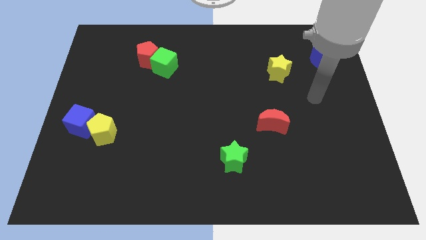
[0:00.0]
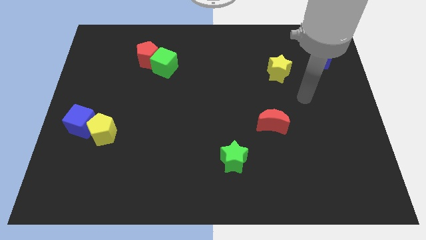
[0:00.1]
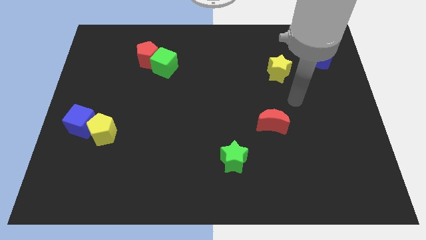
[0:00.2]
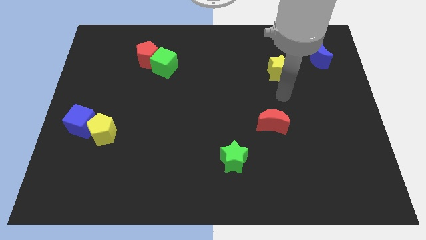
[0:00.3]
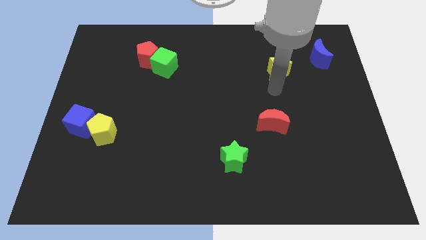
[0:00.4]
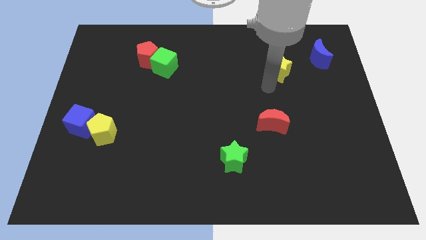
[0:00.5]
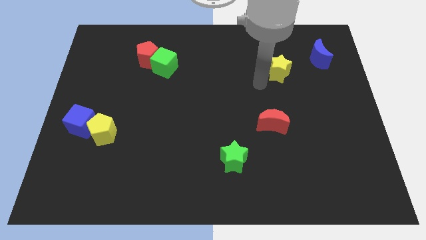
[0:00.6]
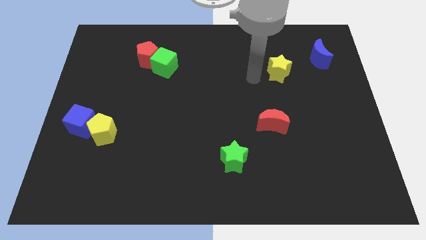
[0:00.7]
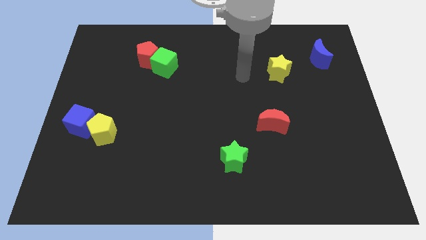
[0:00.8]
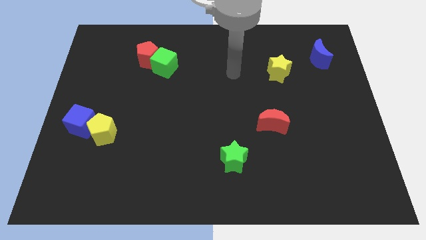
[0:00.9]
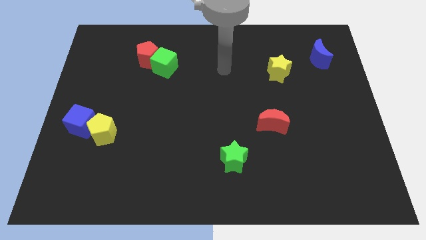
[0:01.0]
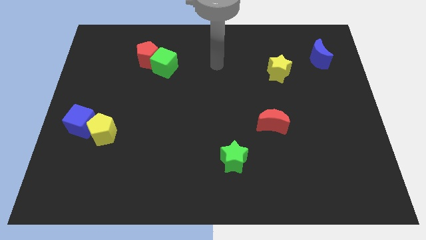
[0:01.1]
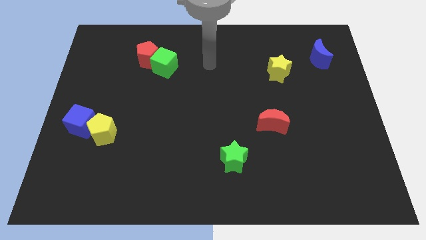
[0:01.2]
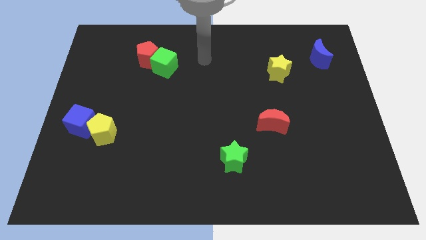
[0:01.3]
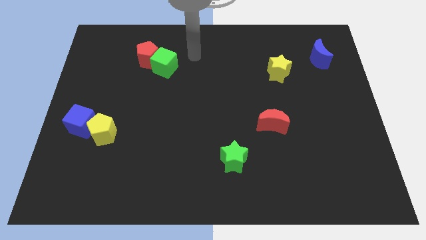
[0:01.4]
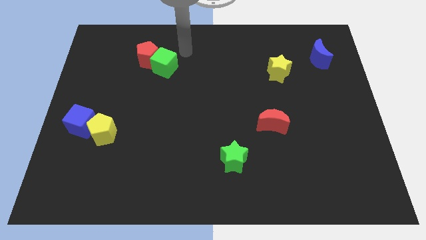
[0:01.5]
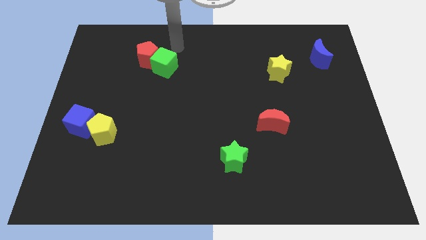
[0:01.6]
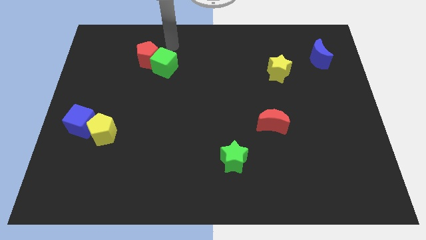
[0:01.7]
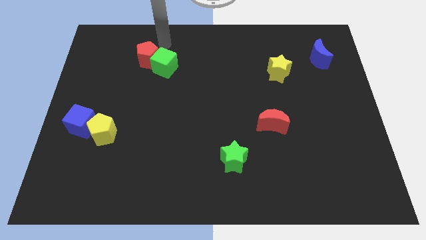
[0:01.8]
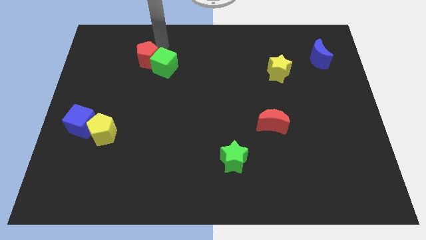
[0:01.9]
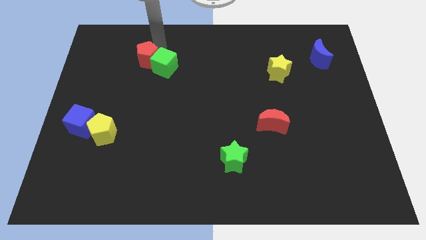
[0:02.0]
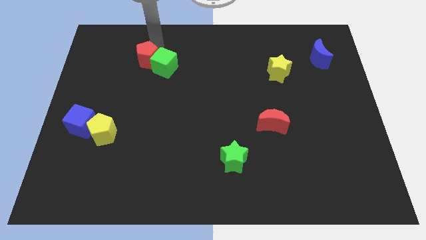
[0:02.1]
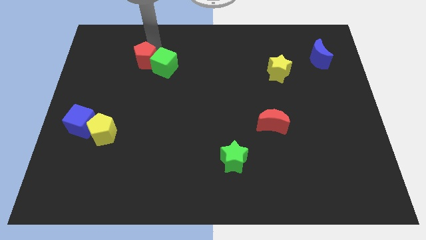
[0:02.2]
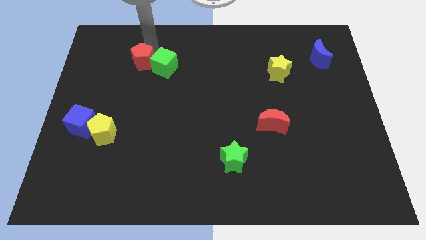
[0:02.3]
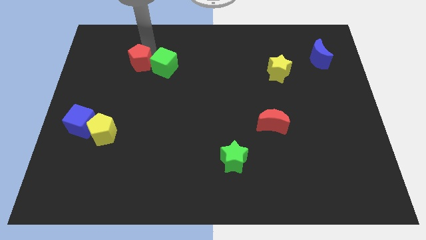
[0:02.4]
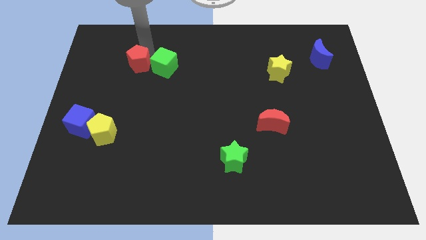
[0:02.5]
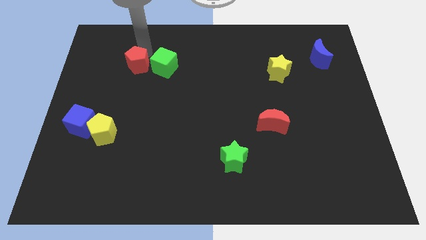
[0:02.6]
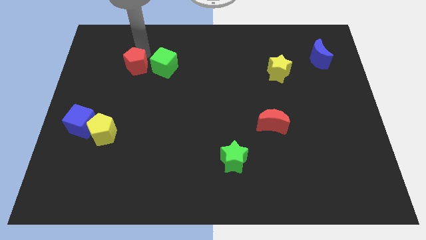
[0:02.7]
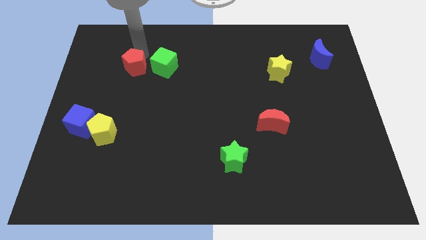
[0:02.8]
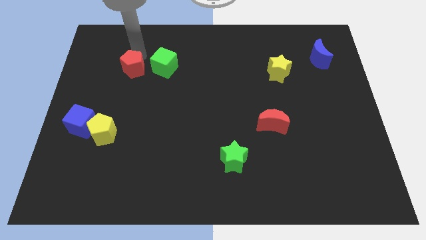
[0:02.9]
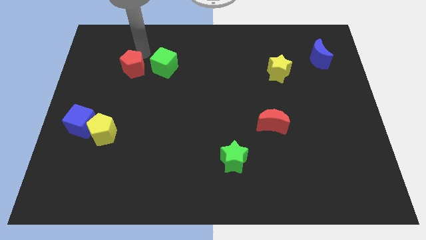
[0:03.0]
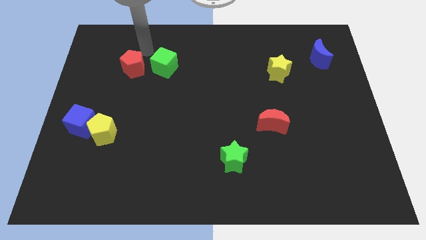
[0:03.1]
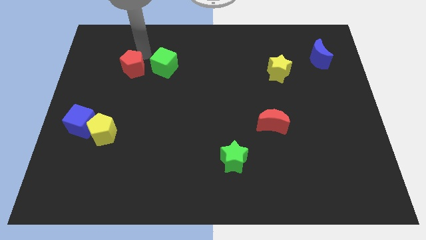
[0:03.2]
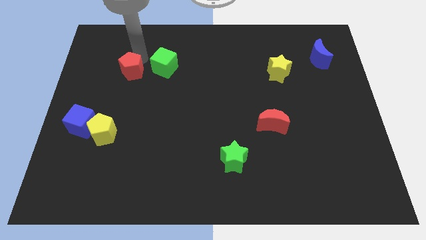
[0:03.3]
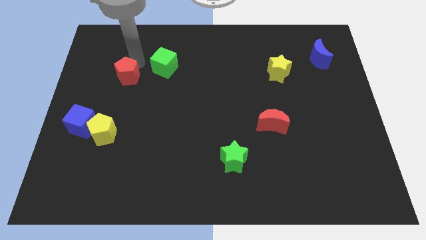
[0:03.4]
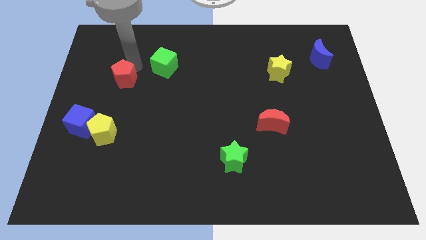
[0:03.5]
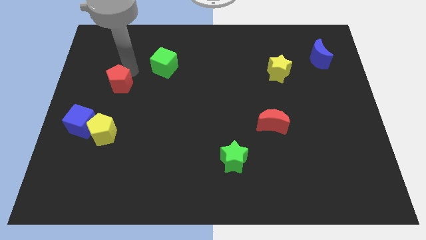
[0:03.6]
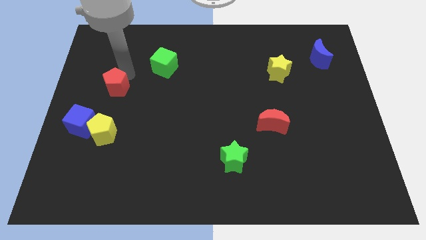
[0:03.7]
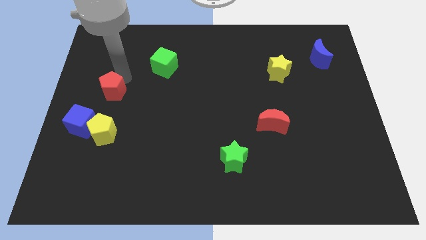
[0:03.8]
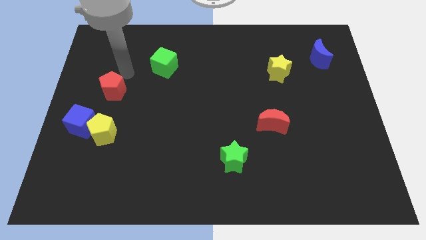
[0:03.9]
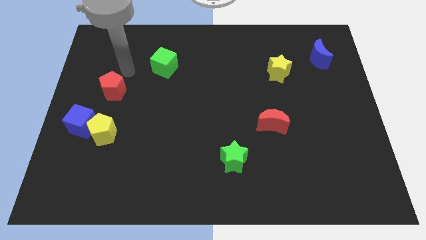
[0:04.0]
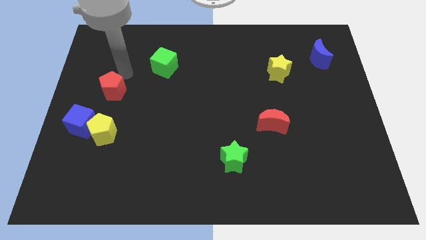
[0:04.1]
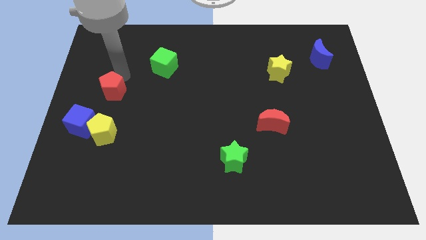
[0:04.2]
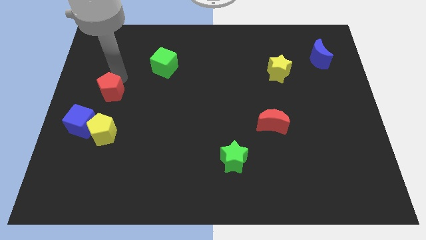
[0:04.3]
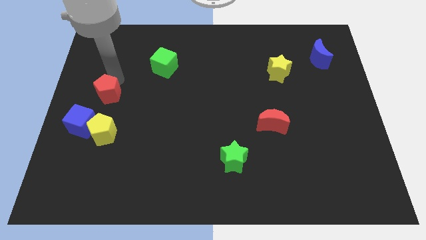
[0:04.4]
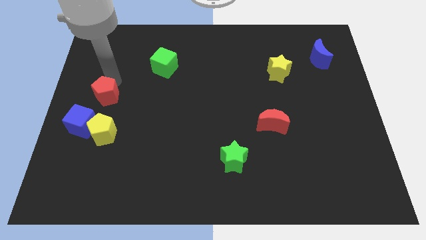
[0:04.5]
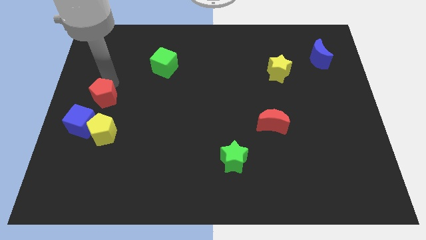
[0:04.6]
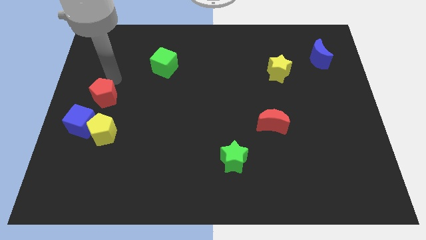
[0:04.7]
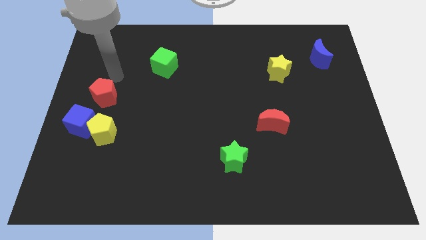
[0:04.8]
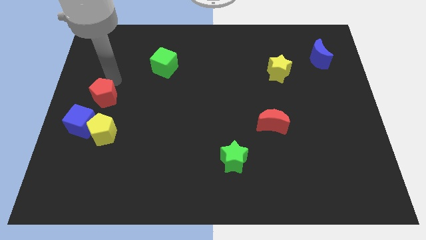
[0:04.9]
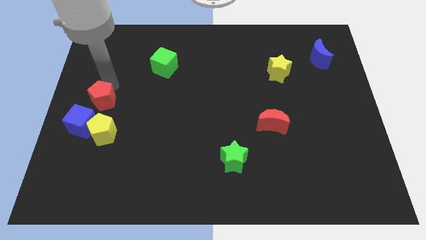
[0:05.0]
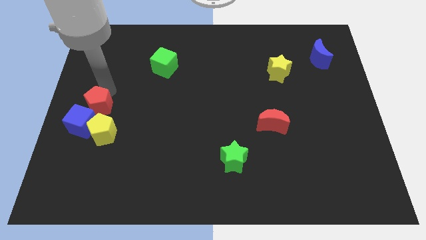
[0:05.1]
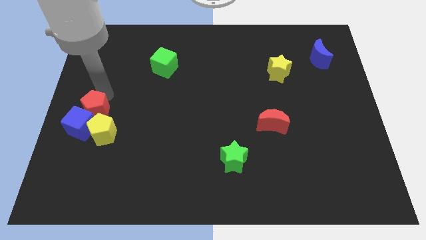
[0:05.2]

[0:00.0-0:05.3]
move the red pentagon towards the blue cube

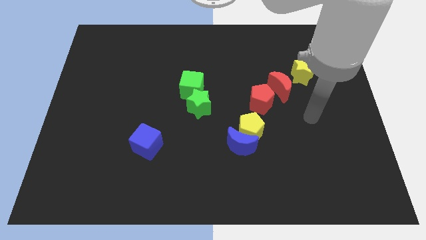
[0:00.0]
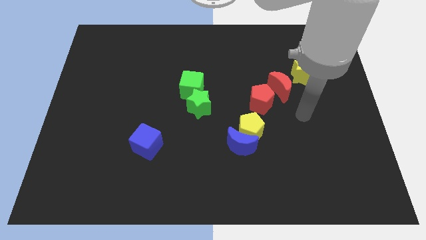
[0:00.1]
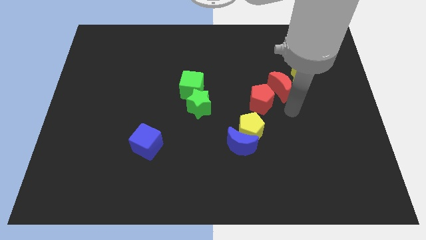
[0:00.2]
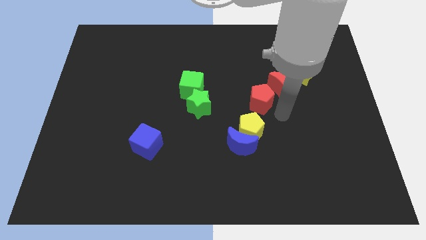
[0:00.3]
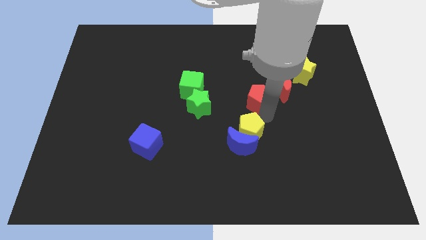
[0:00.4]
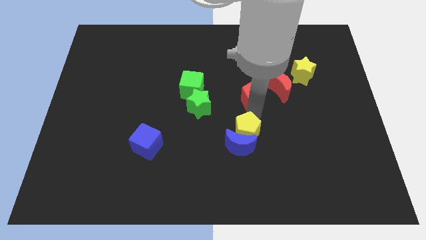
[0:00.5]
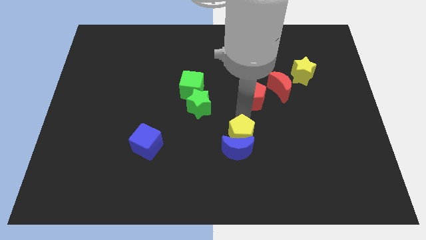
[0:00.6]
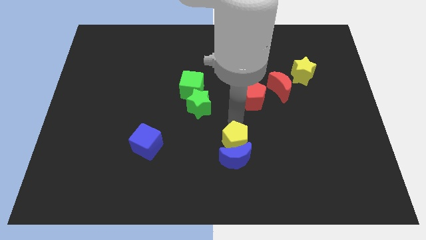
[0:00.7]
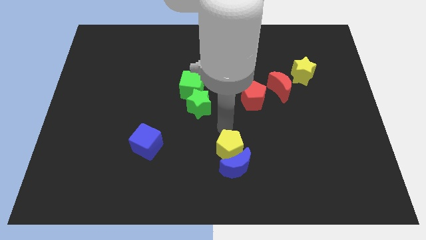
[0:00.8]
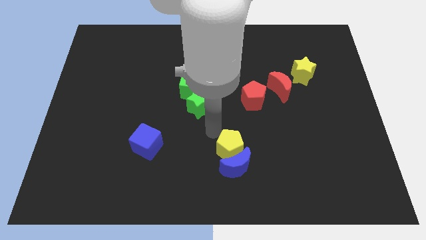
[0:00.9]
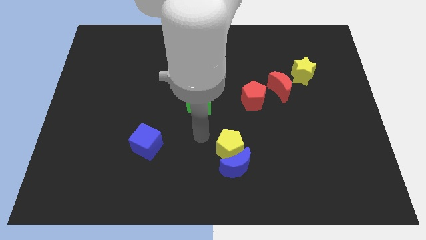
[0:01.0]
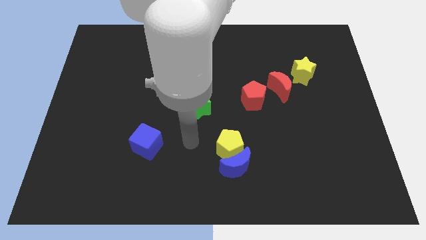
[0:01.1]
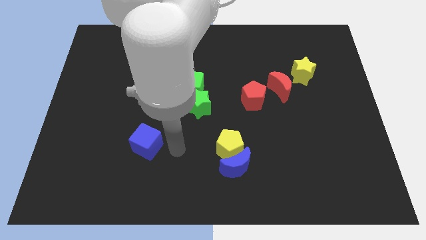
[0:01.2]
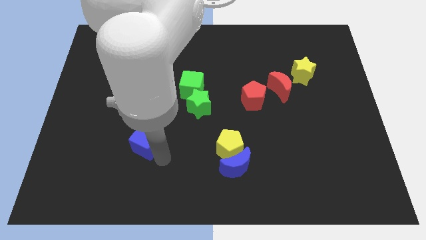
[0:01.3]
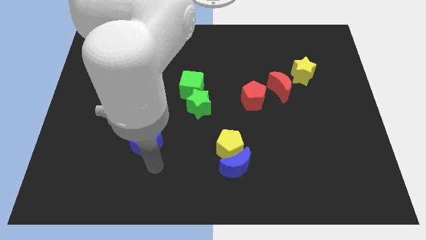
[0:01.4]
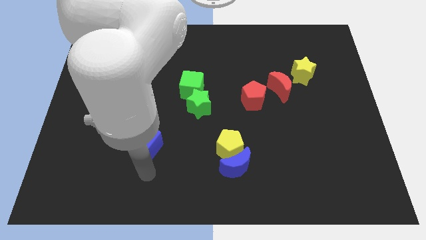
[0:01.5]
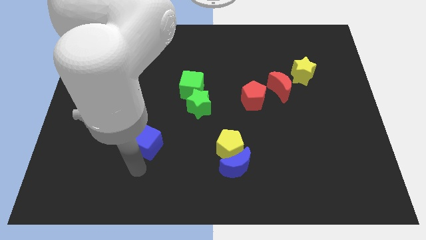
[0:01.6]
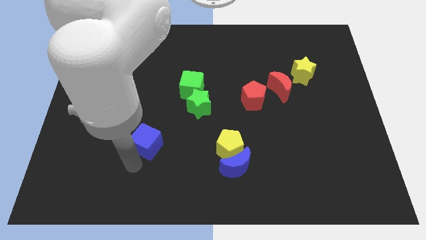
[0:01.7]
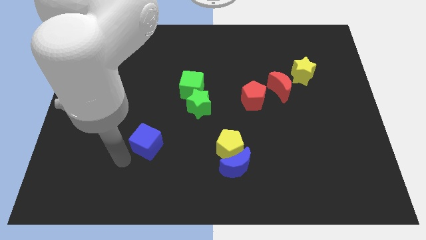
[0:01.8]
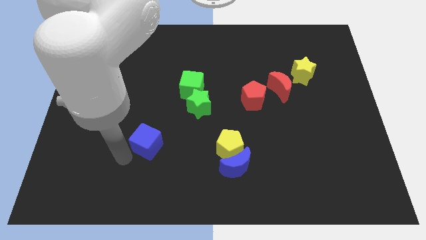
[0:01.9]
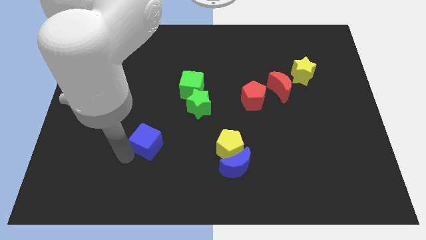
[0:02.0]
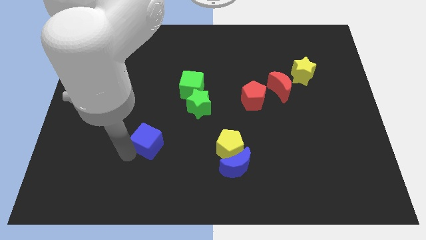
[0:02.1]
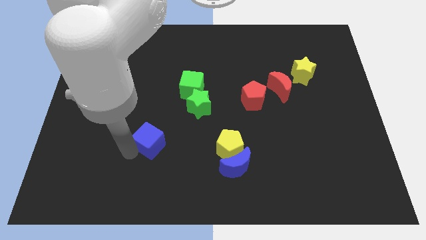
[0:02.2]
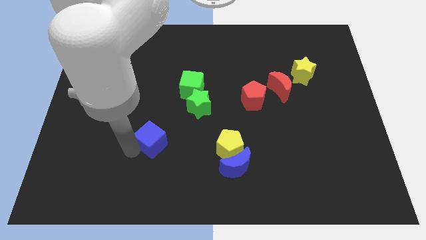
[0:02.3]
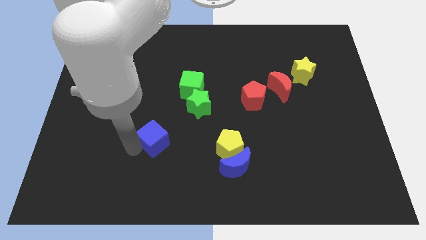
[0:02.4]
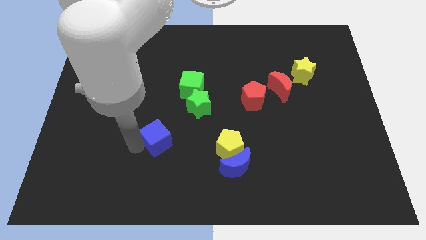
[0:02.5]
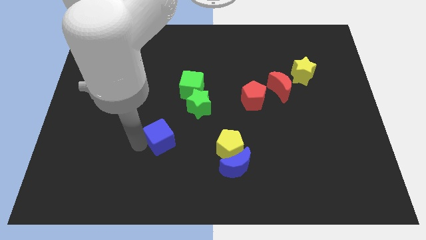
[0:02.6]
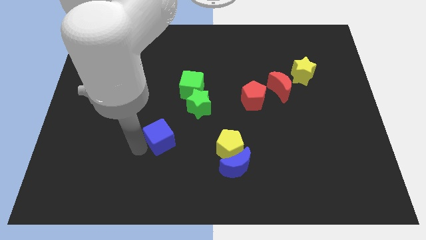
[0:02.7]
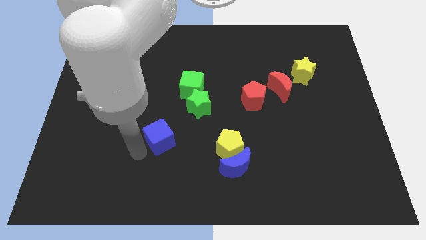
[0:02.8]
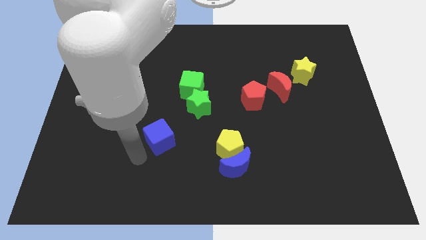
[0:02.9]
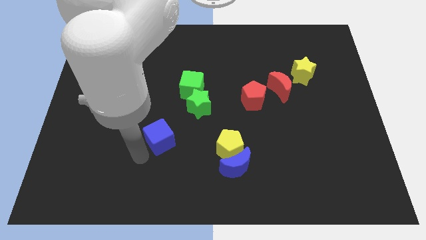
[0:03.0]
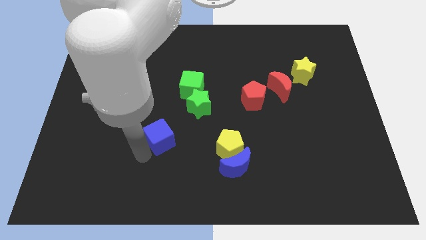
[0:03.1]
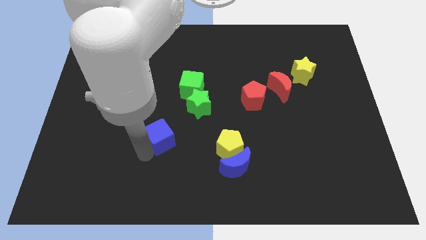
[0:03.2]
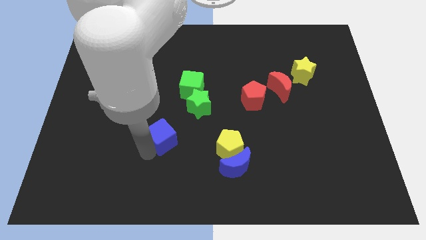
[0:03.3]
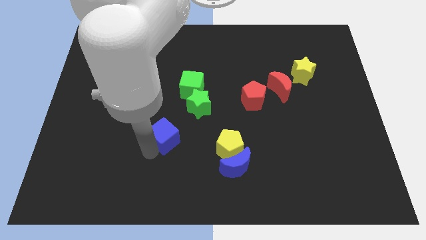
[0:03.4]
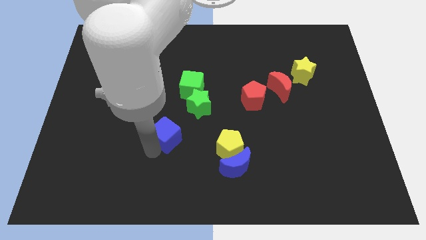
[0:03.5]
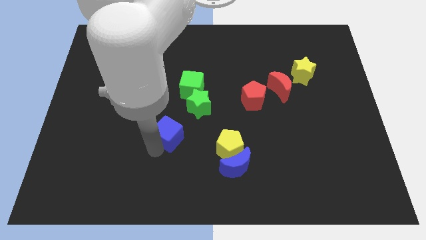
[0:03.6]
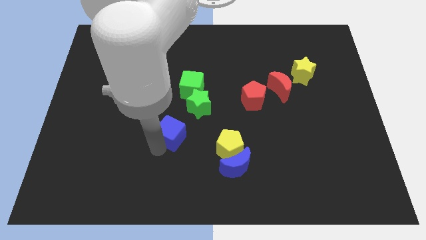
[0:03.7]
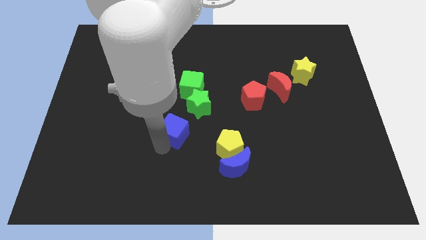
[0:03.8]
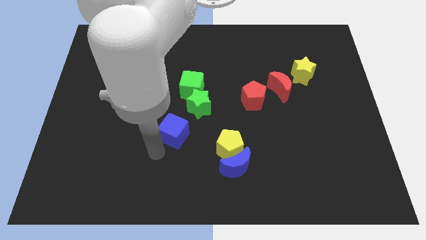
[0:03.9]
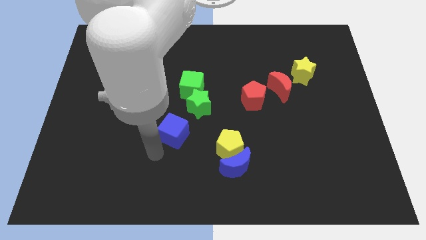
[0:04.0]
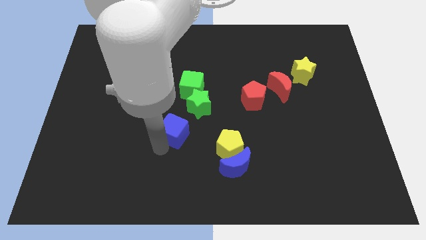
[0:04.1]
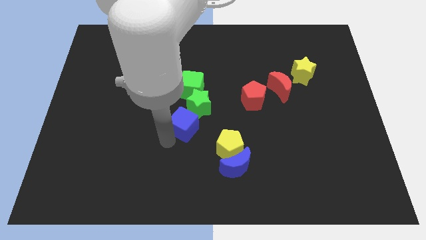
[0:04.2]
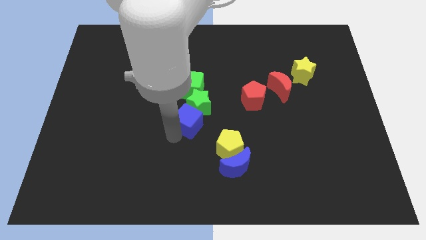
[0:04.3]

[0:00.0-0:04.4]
put the blue cube to the green star
